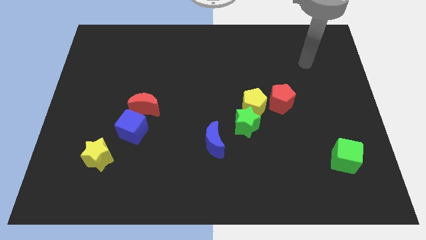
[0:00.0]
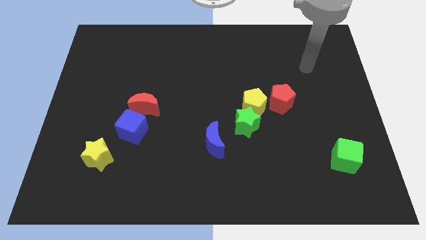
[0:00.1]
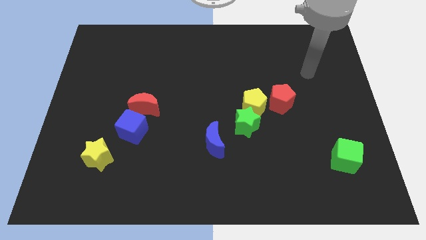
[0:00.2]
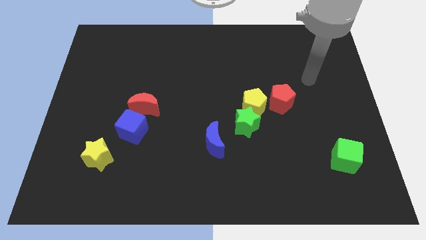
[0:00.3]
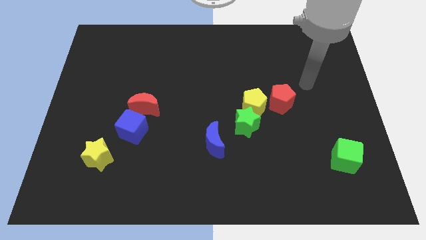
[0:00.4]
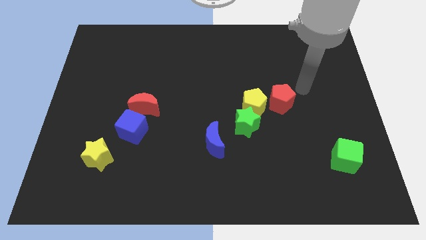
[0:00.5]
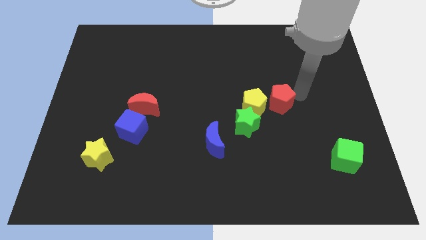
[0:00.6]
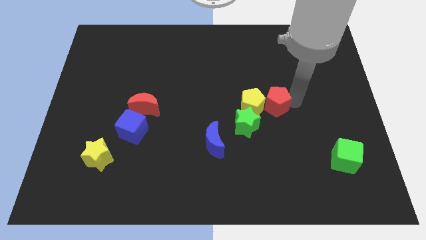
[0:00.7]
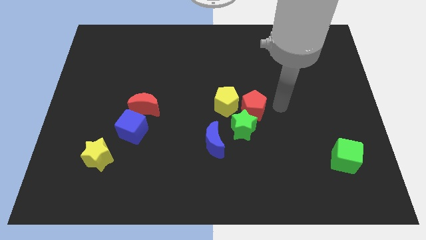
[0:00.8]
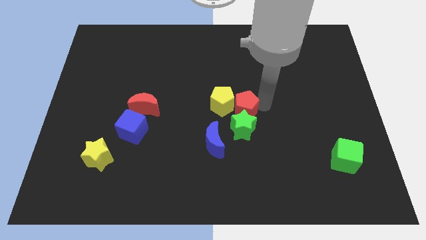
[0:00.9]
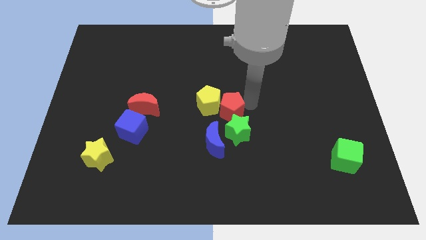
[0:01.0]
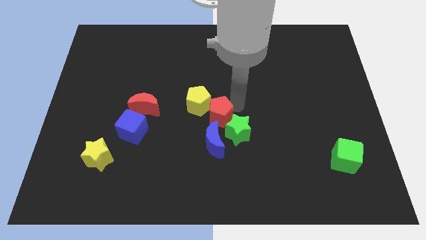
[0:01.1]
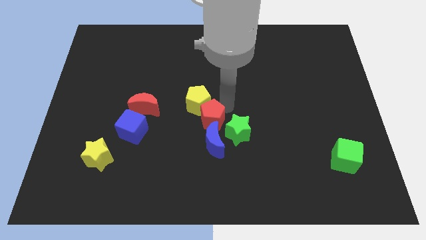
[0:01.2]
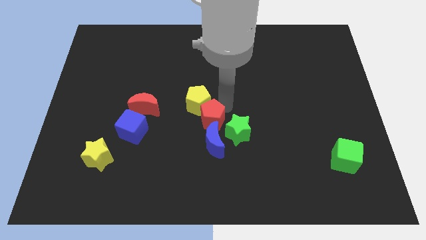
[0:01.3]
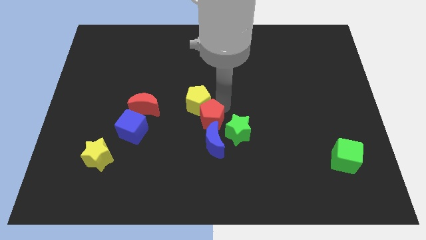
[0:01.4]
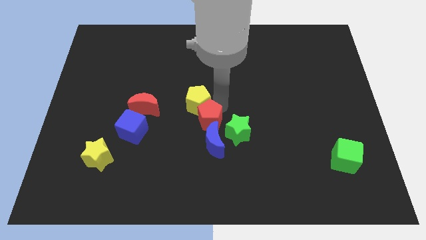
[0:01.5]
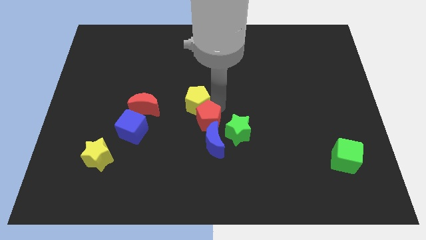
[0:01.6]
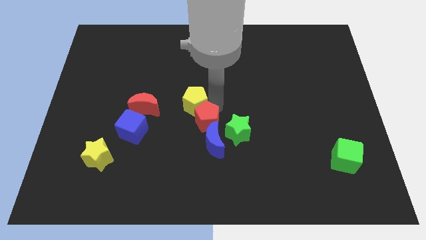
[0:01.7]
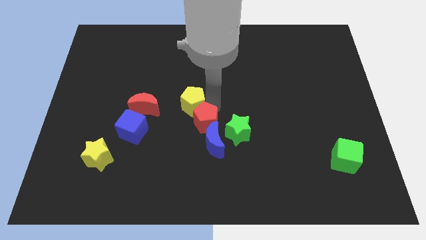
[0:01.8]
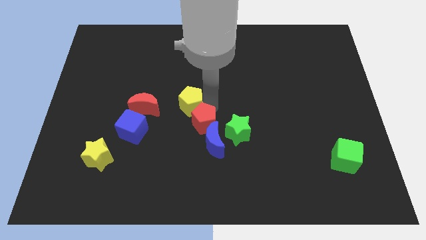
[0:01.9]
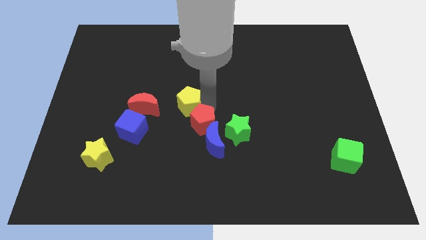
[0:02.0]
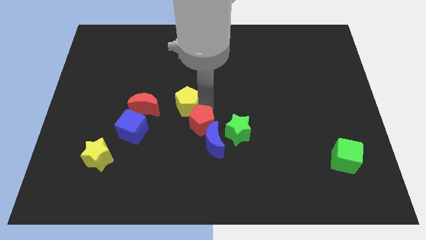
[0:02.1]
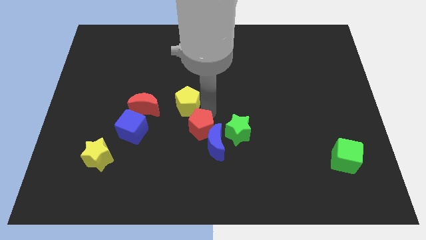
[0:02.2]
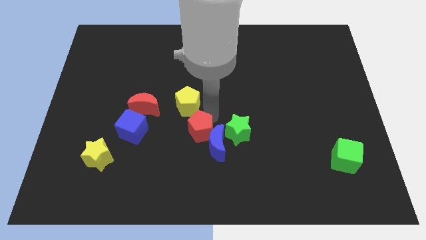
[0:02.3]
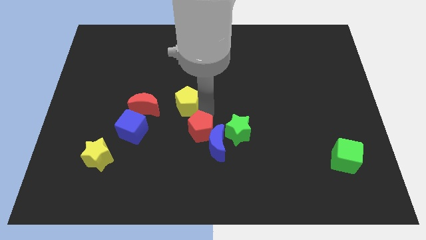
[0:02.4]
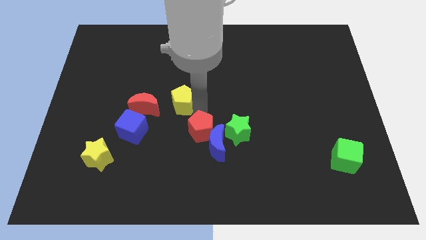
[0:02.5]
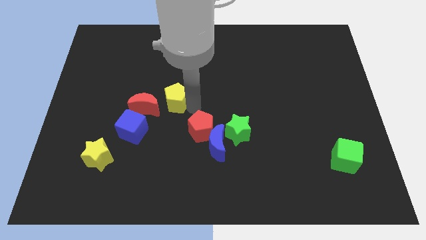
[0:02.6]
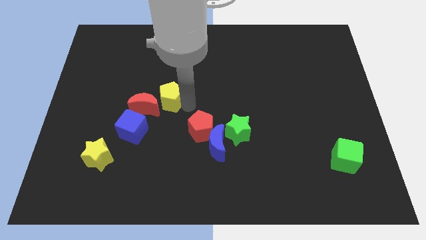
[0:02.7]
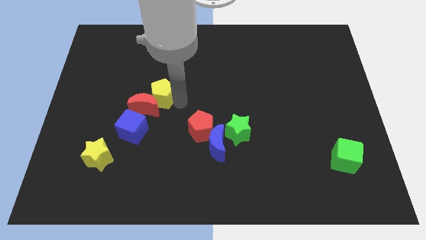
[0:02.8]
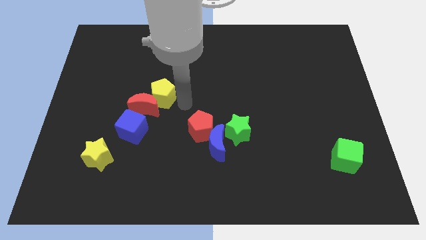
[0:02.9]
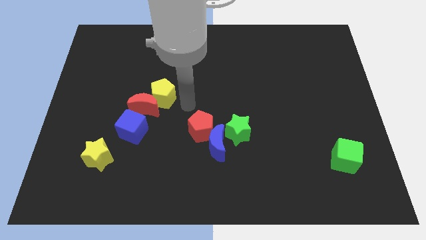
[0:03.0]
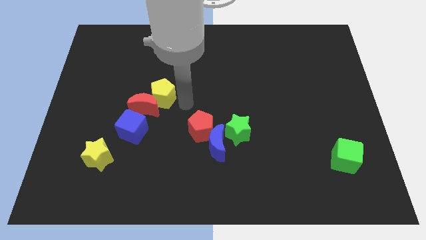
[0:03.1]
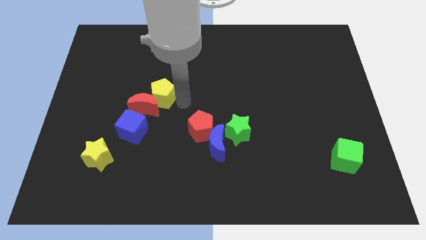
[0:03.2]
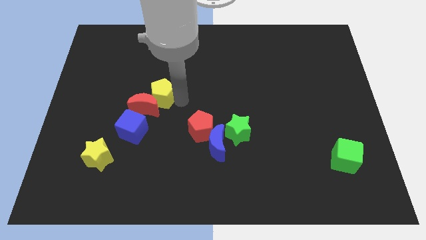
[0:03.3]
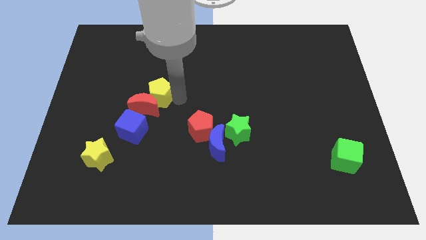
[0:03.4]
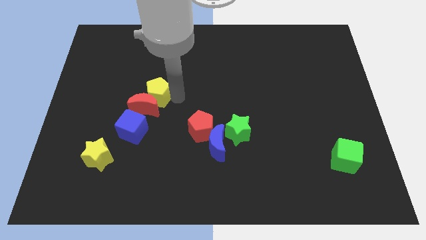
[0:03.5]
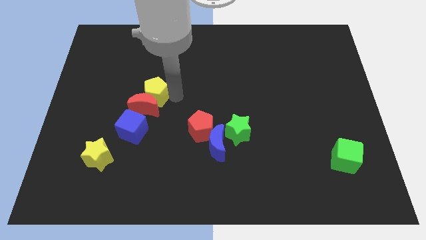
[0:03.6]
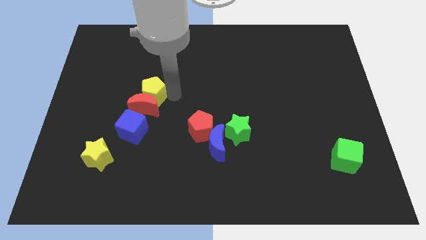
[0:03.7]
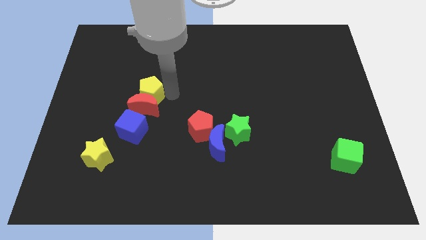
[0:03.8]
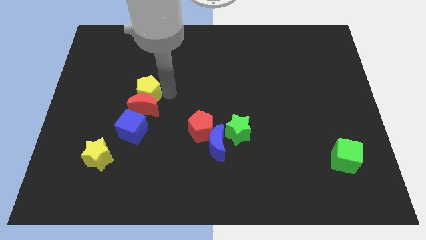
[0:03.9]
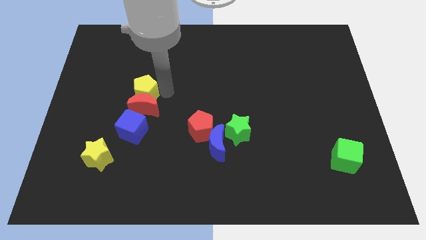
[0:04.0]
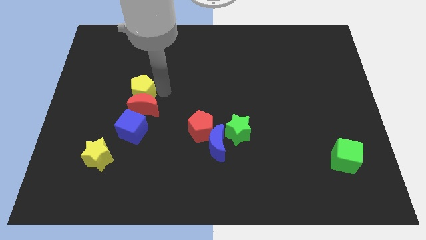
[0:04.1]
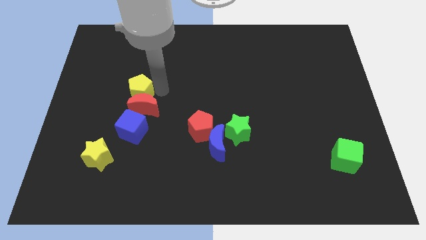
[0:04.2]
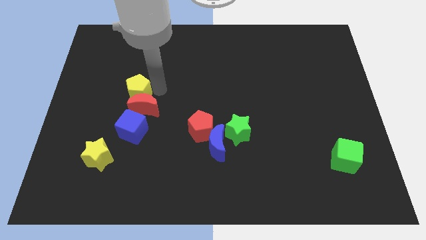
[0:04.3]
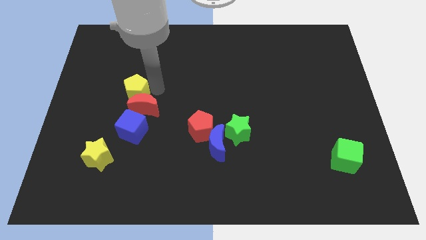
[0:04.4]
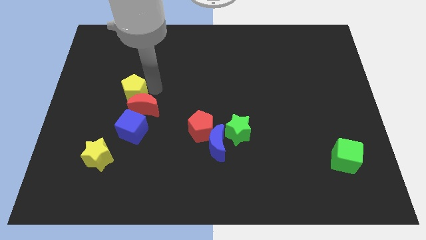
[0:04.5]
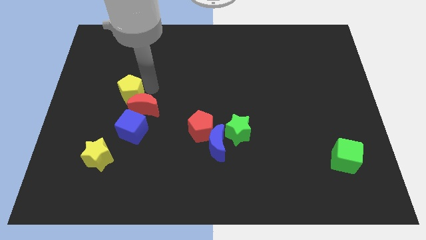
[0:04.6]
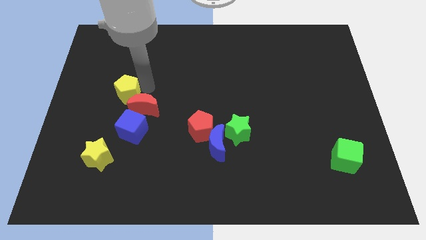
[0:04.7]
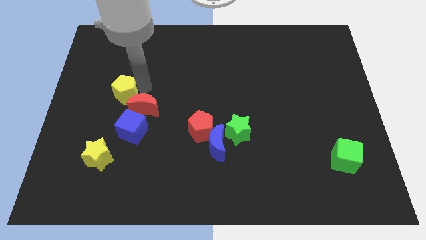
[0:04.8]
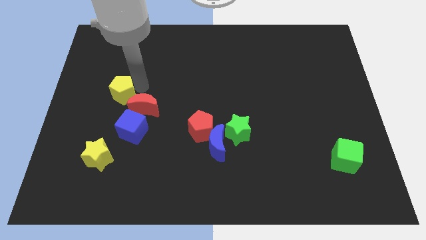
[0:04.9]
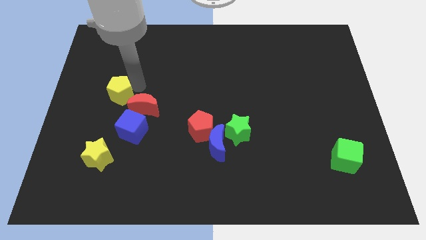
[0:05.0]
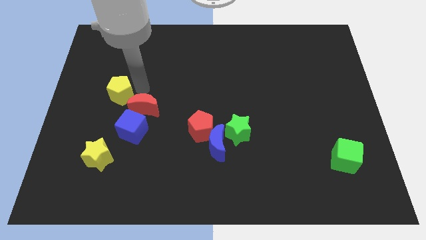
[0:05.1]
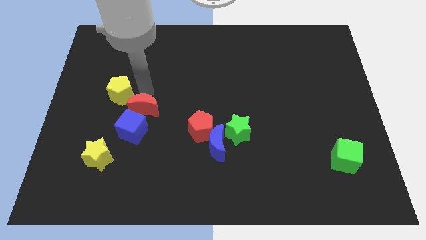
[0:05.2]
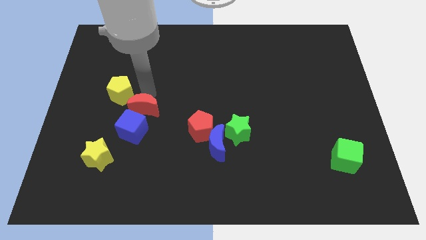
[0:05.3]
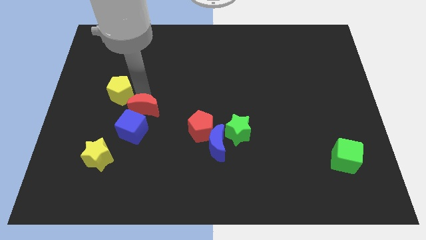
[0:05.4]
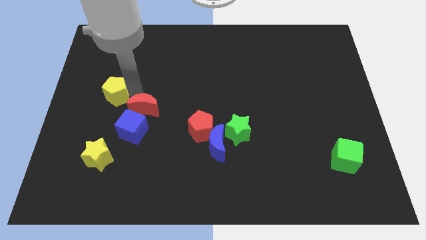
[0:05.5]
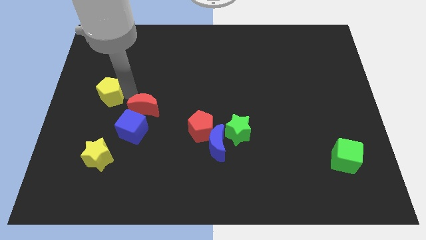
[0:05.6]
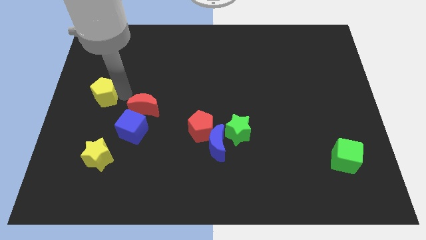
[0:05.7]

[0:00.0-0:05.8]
slide the yellow pentagon to the center left

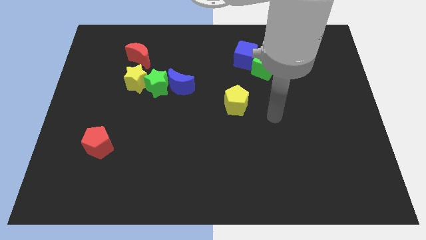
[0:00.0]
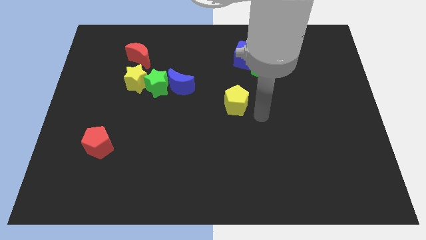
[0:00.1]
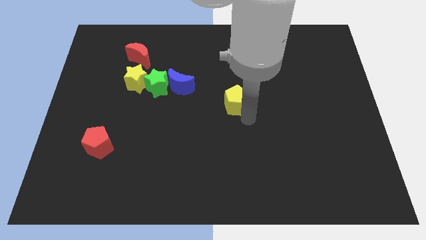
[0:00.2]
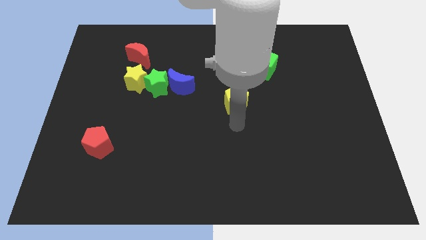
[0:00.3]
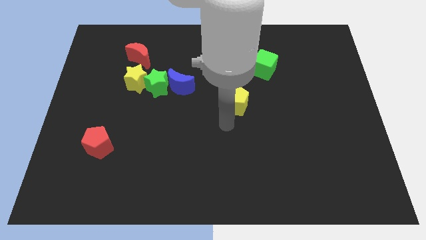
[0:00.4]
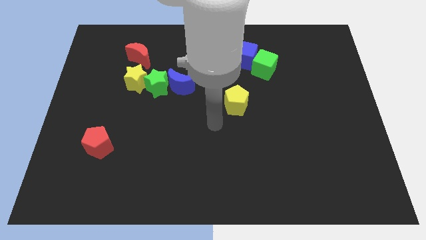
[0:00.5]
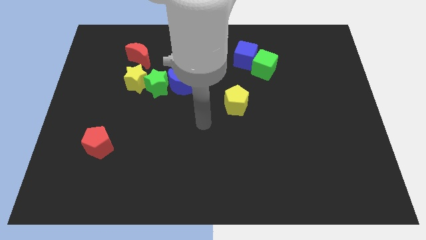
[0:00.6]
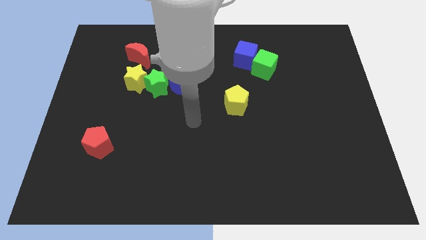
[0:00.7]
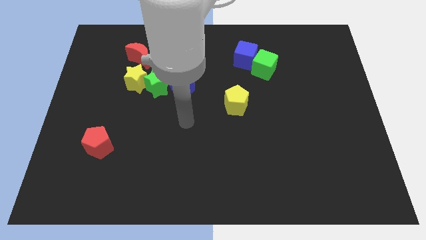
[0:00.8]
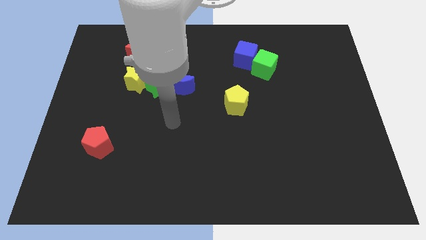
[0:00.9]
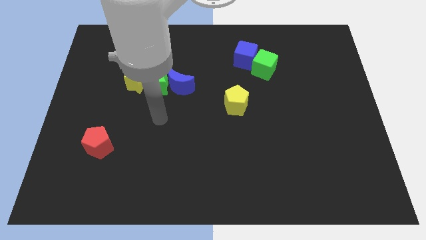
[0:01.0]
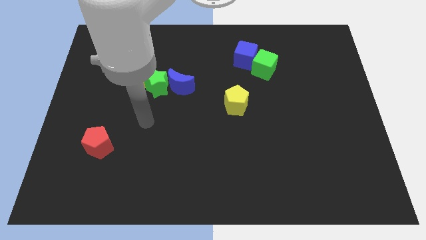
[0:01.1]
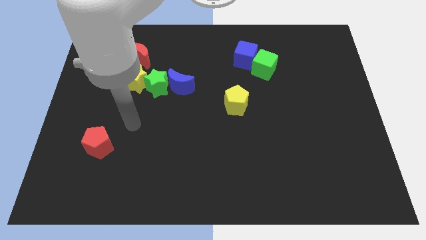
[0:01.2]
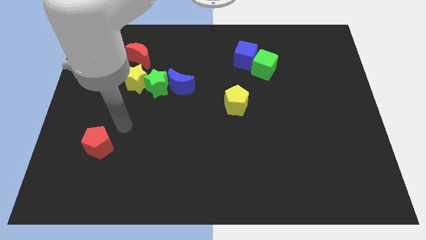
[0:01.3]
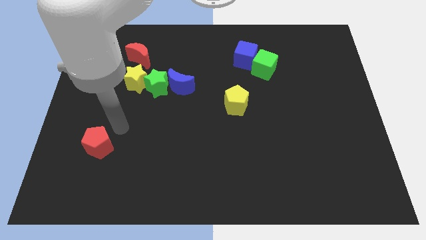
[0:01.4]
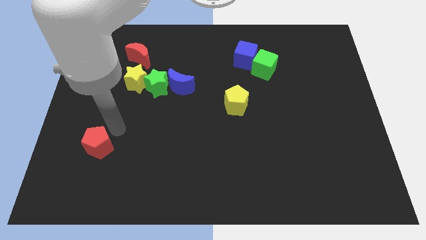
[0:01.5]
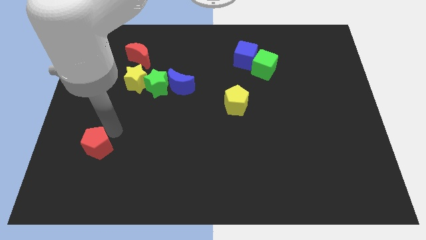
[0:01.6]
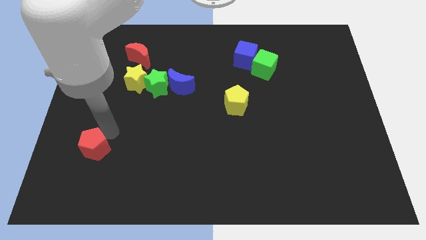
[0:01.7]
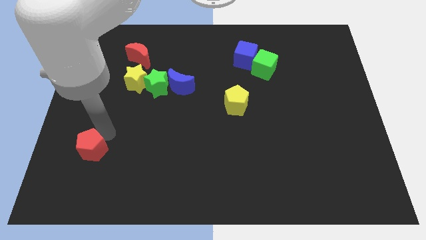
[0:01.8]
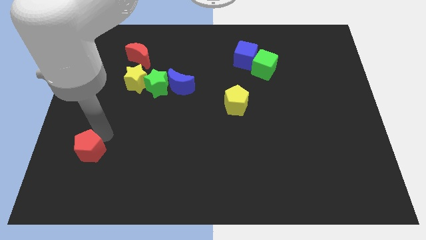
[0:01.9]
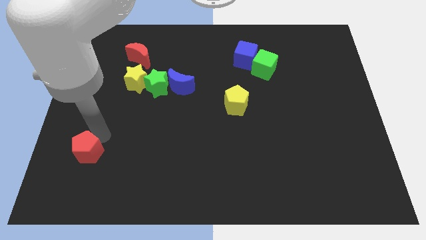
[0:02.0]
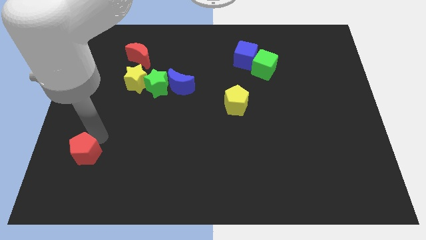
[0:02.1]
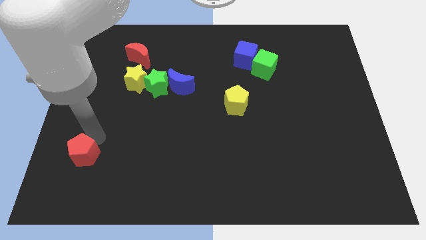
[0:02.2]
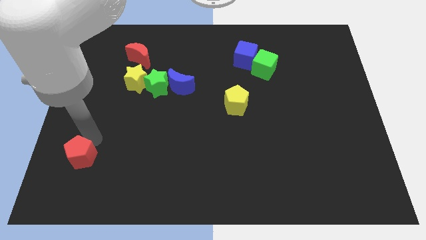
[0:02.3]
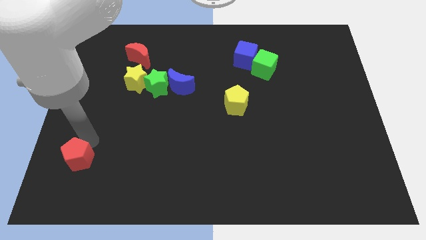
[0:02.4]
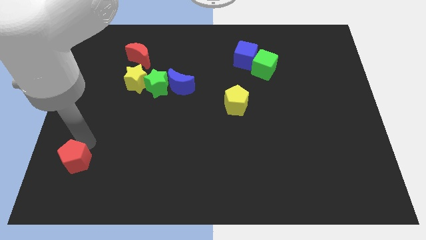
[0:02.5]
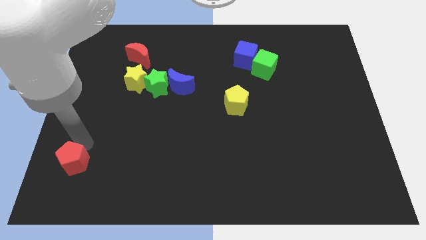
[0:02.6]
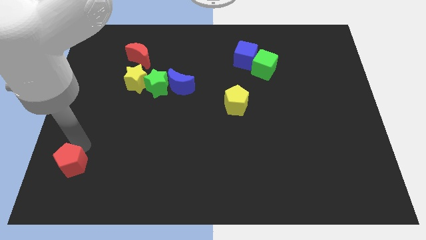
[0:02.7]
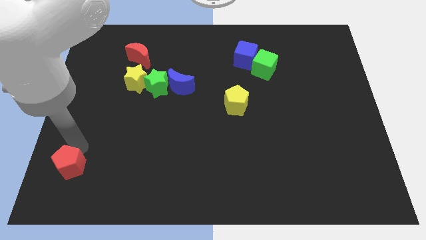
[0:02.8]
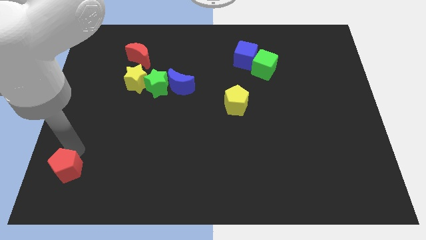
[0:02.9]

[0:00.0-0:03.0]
slide the red pentagon to the lower left corner
